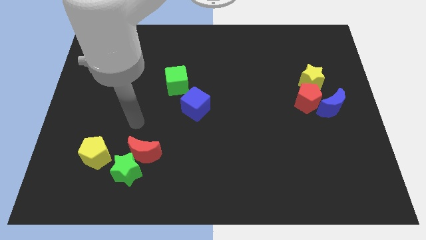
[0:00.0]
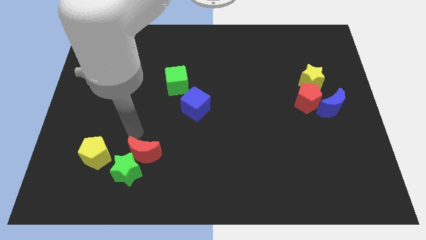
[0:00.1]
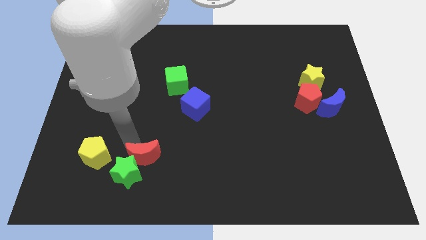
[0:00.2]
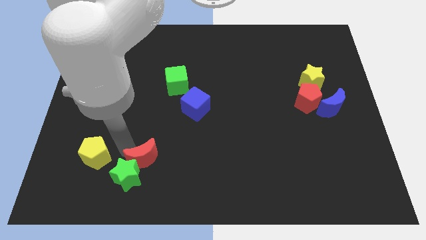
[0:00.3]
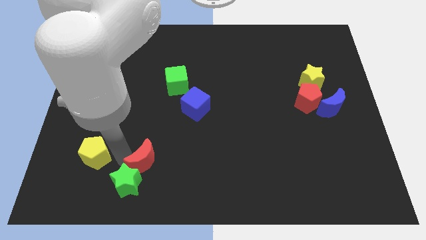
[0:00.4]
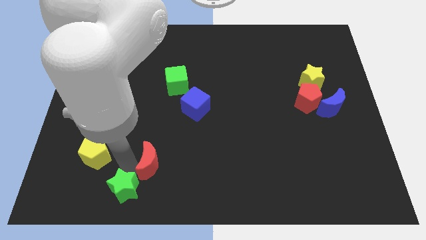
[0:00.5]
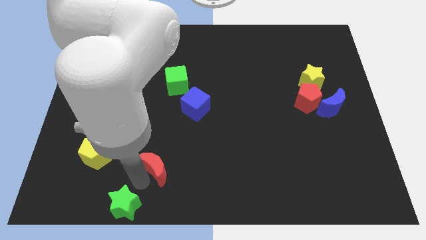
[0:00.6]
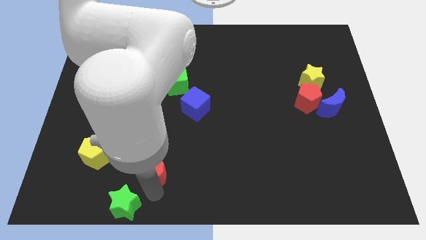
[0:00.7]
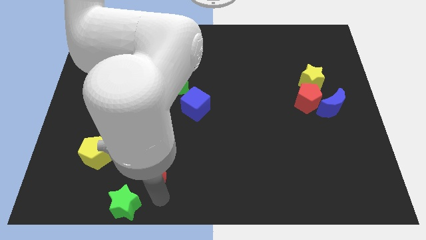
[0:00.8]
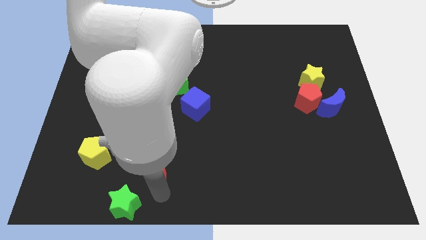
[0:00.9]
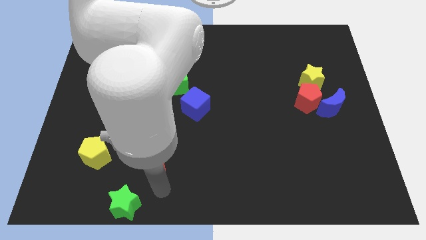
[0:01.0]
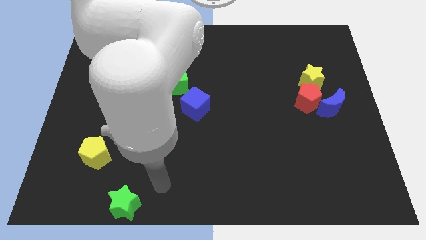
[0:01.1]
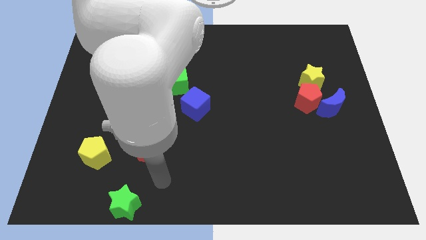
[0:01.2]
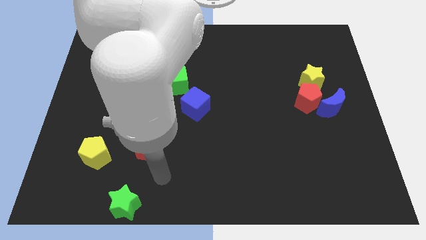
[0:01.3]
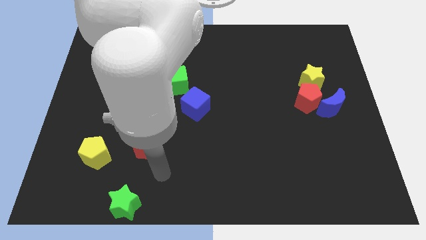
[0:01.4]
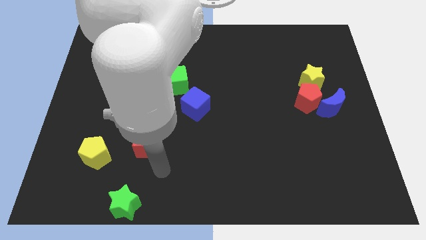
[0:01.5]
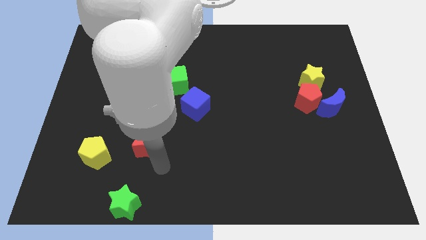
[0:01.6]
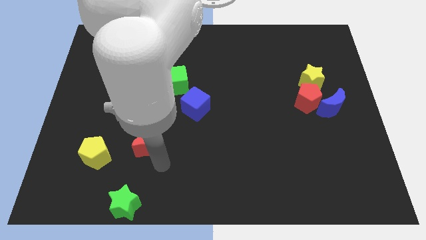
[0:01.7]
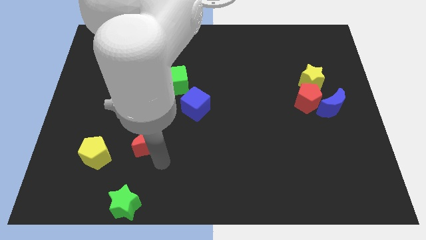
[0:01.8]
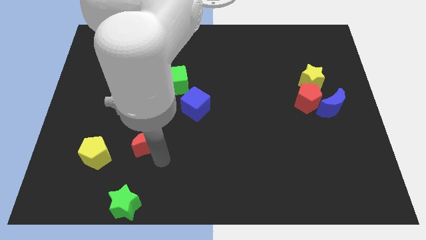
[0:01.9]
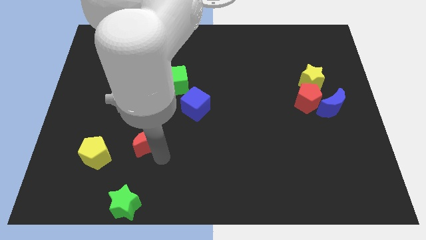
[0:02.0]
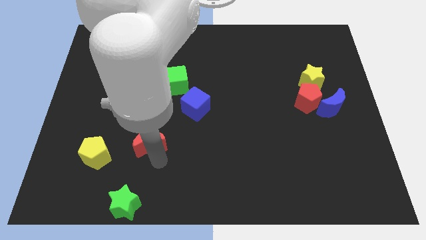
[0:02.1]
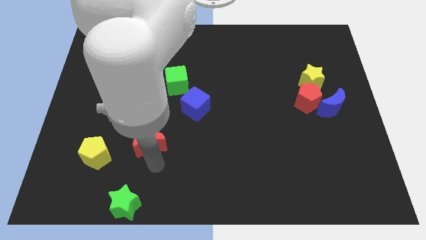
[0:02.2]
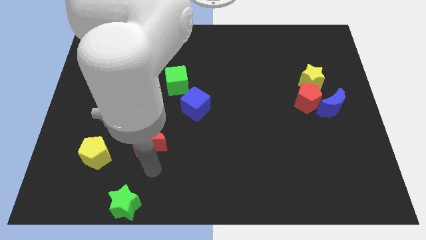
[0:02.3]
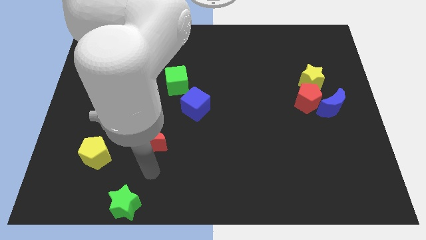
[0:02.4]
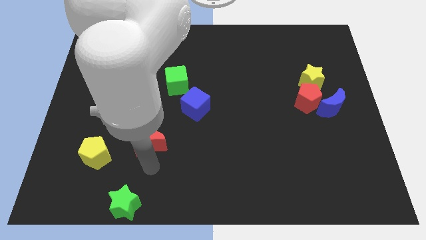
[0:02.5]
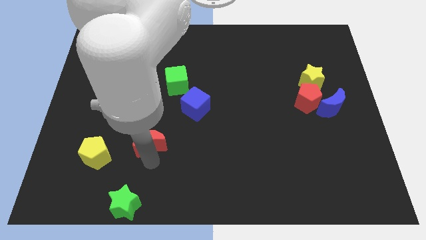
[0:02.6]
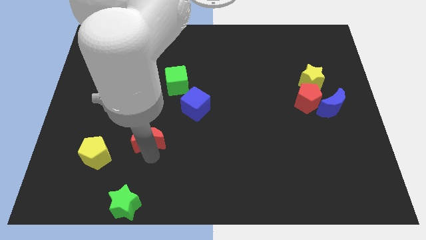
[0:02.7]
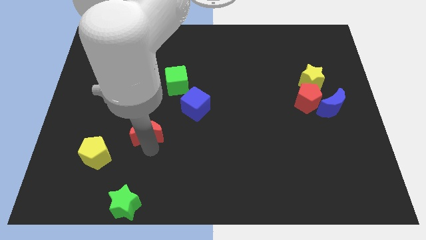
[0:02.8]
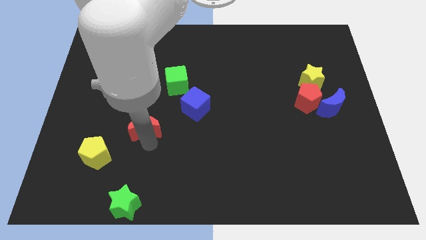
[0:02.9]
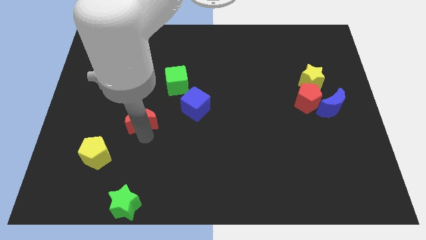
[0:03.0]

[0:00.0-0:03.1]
push the red moon upwards a bit

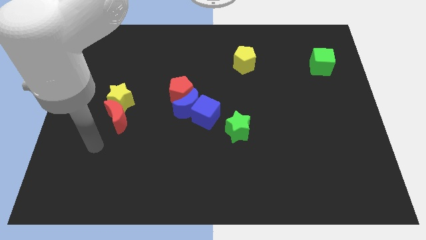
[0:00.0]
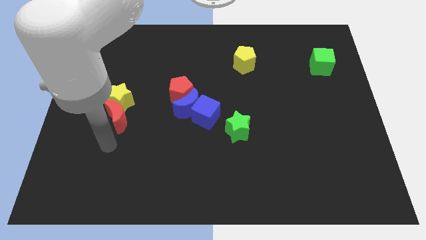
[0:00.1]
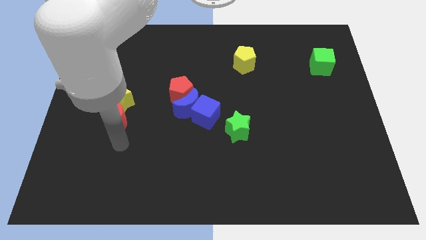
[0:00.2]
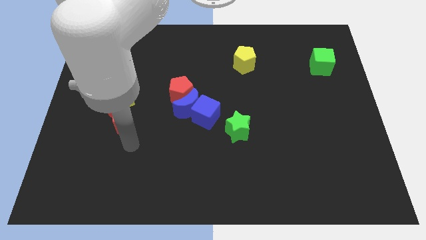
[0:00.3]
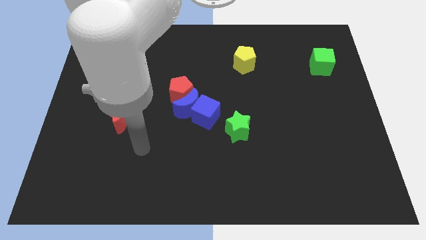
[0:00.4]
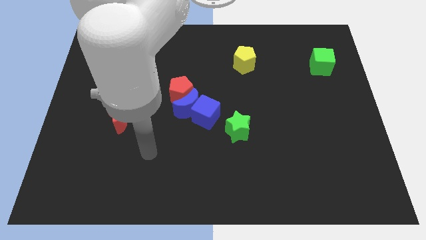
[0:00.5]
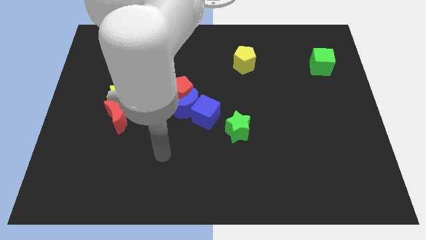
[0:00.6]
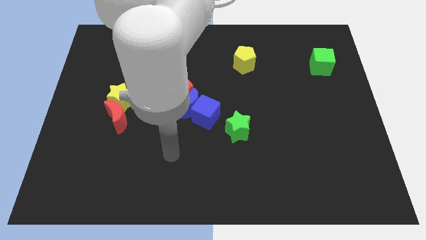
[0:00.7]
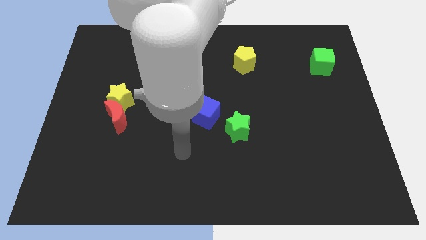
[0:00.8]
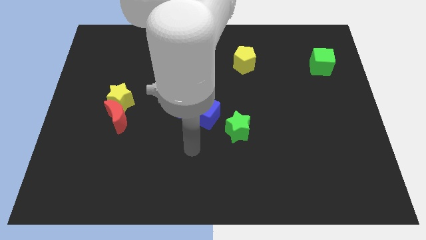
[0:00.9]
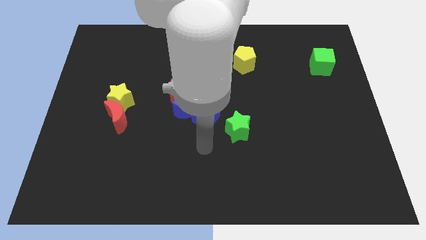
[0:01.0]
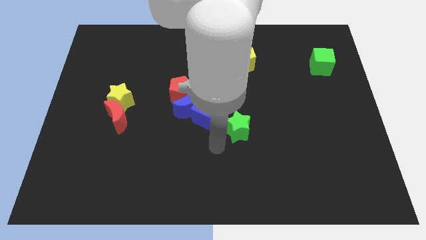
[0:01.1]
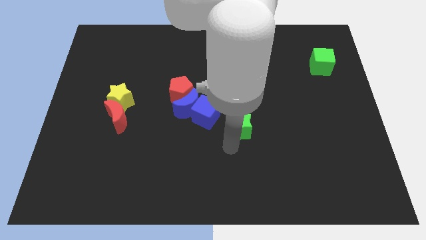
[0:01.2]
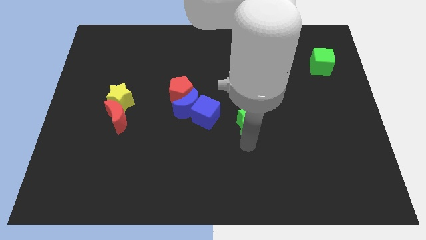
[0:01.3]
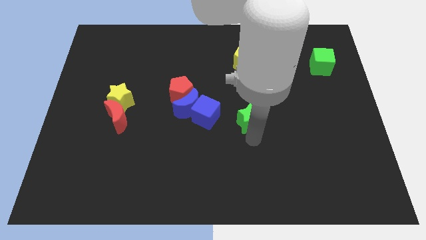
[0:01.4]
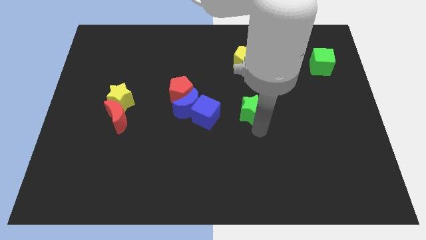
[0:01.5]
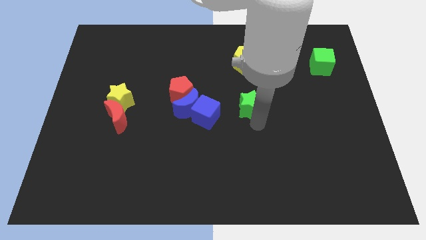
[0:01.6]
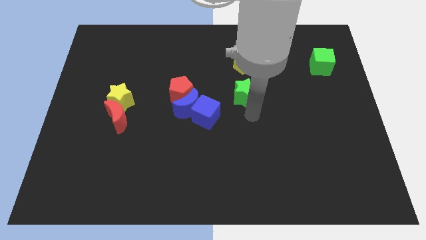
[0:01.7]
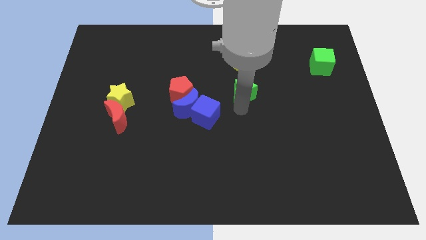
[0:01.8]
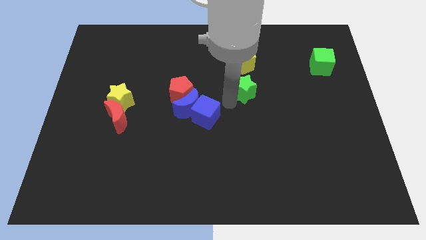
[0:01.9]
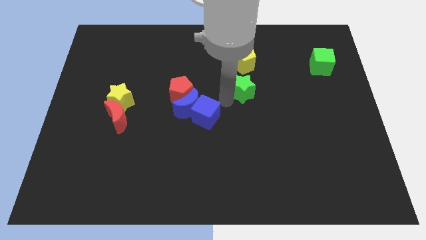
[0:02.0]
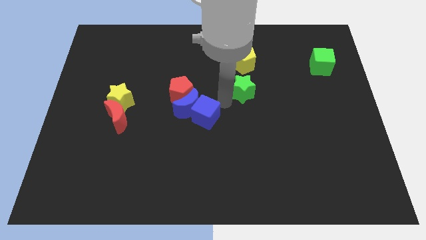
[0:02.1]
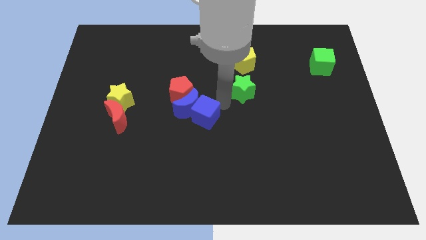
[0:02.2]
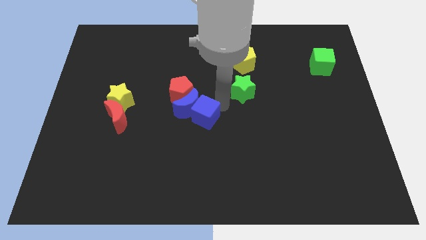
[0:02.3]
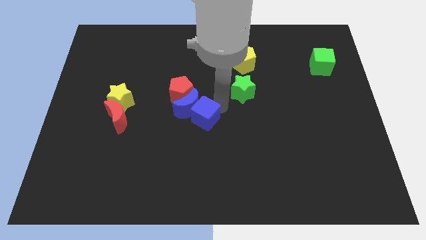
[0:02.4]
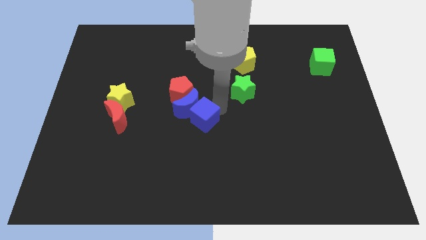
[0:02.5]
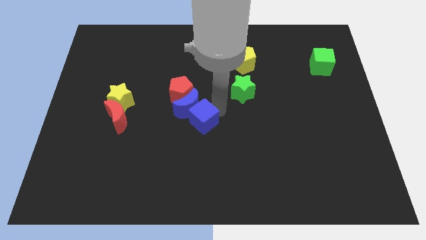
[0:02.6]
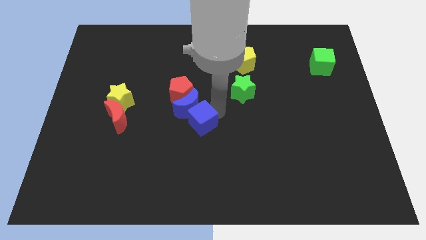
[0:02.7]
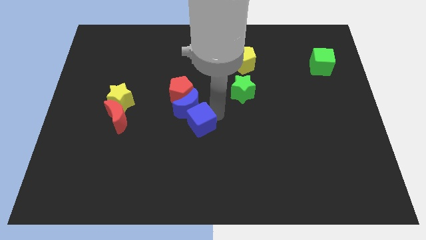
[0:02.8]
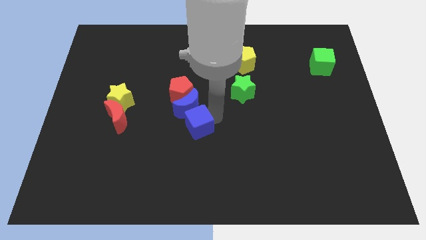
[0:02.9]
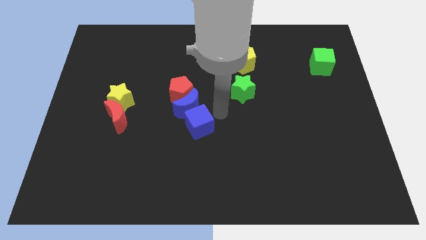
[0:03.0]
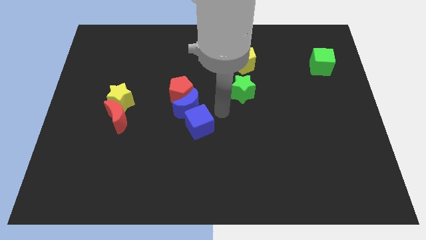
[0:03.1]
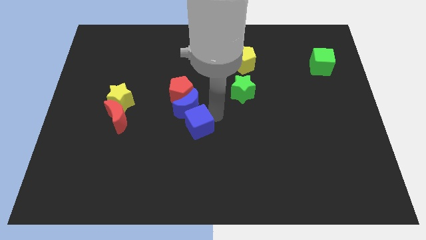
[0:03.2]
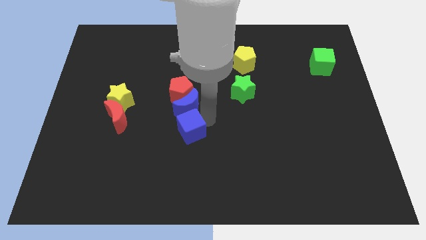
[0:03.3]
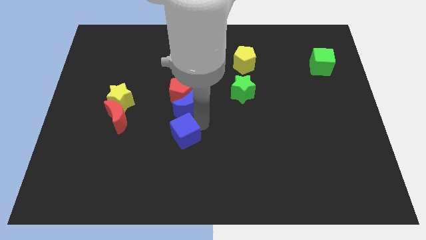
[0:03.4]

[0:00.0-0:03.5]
push the blue cube slightly down and then left

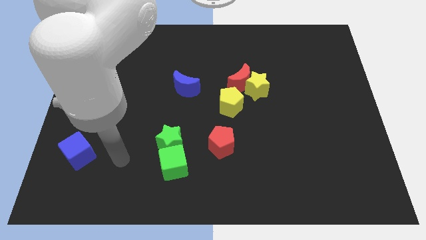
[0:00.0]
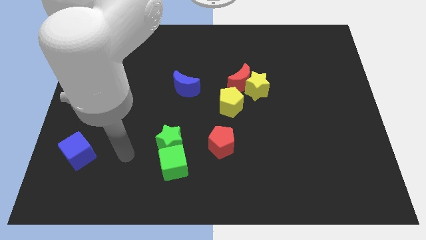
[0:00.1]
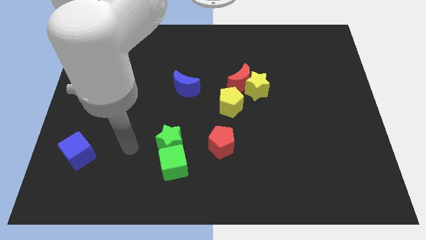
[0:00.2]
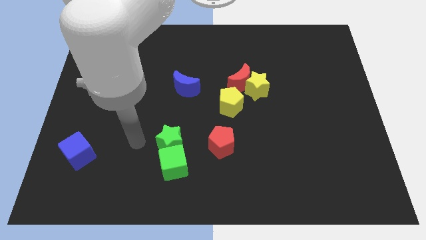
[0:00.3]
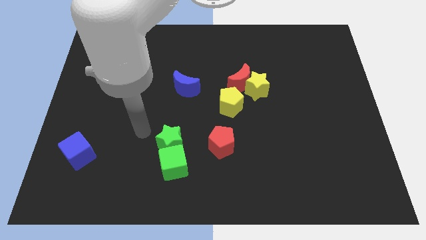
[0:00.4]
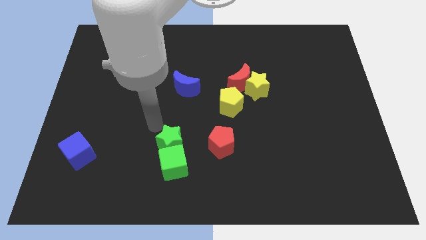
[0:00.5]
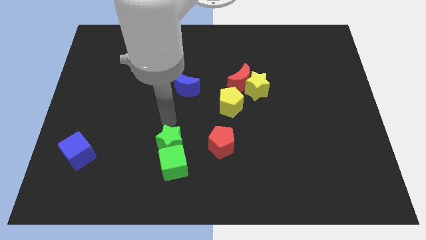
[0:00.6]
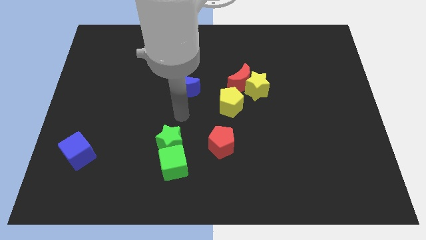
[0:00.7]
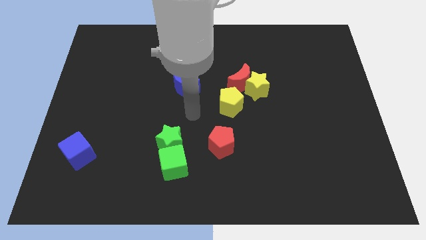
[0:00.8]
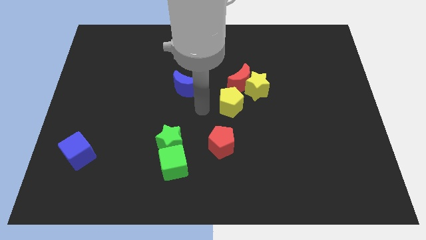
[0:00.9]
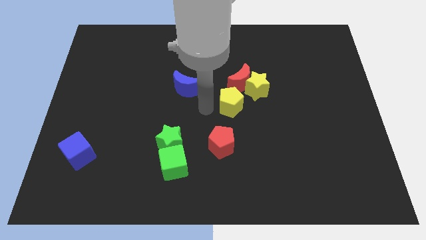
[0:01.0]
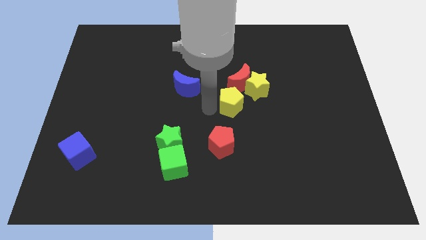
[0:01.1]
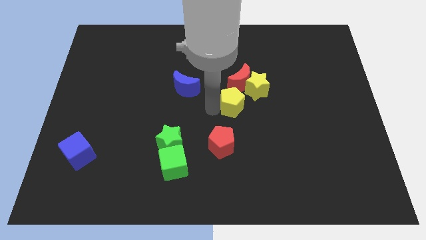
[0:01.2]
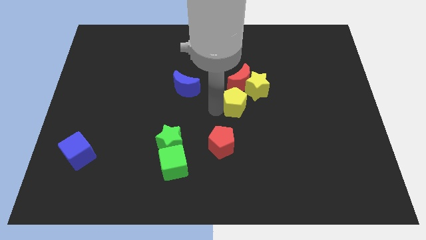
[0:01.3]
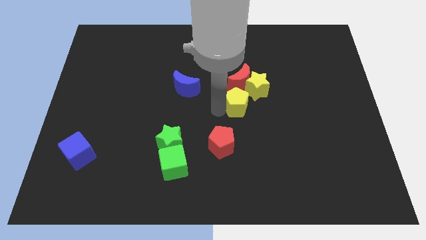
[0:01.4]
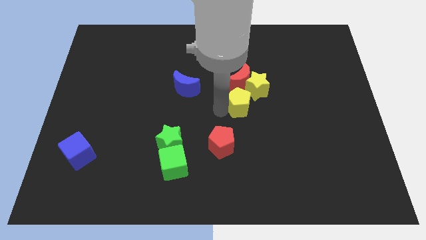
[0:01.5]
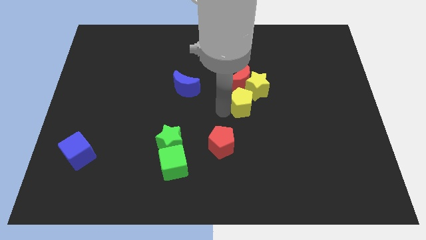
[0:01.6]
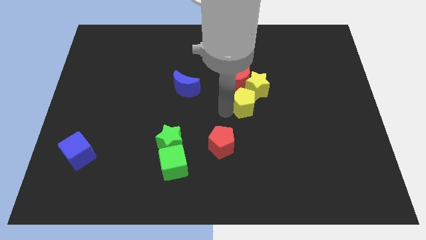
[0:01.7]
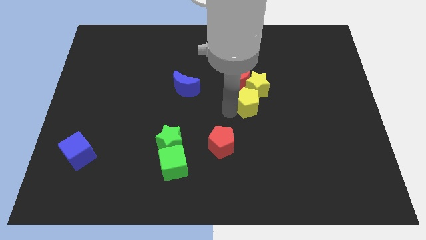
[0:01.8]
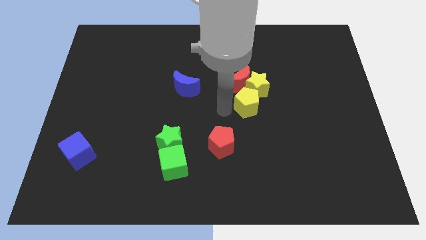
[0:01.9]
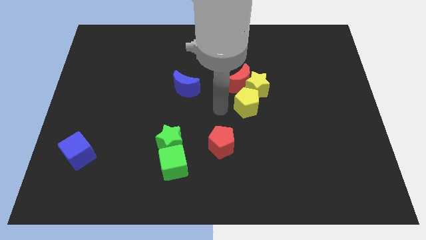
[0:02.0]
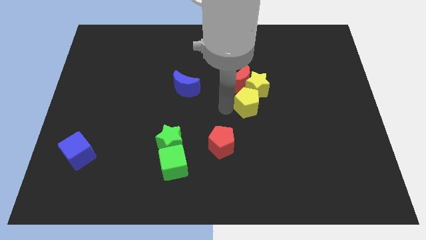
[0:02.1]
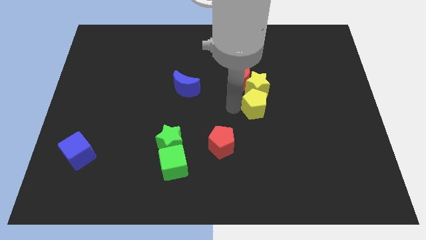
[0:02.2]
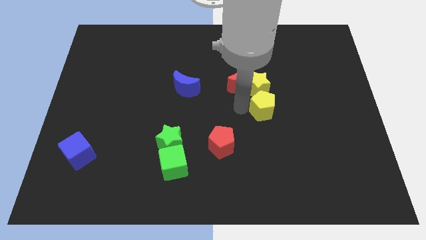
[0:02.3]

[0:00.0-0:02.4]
push the yellow pentagon to the right a bit
